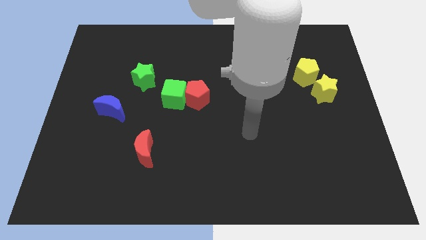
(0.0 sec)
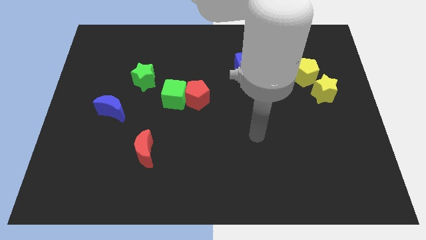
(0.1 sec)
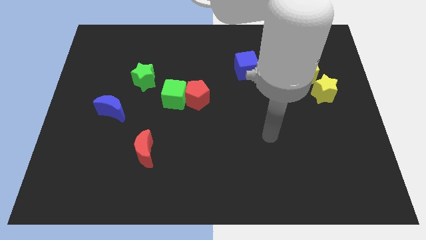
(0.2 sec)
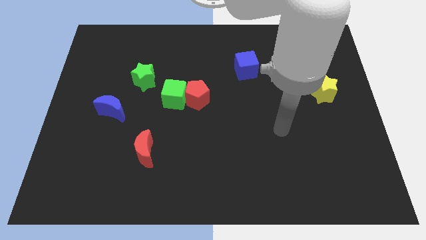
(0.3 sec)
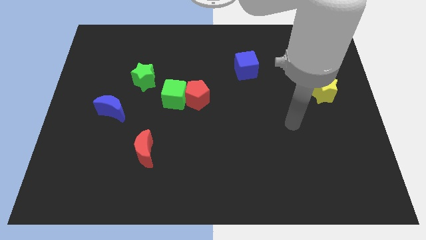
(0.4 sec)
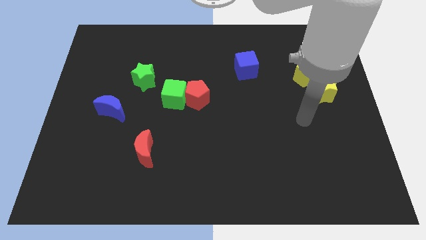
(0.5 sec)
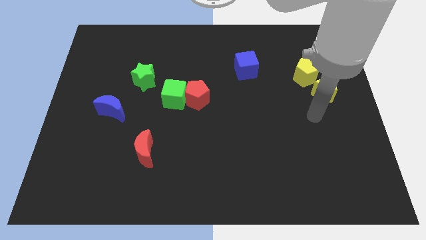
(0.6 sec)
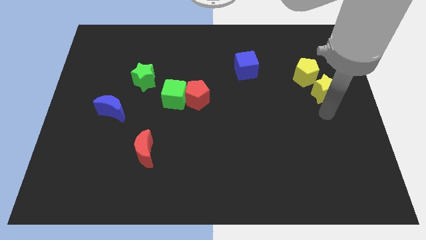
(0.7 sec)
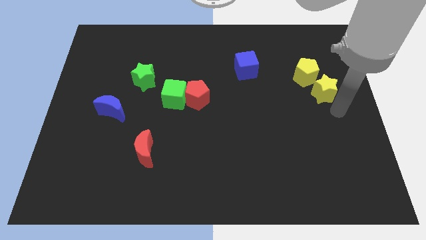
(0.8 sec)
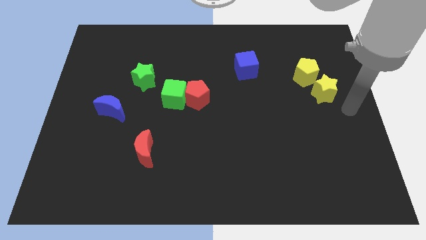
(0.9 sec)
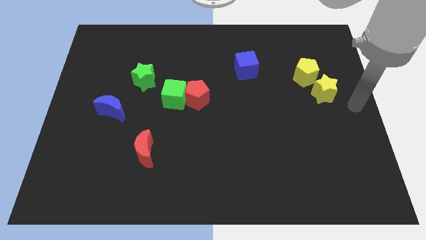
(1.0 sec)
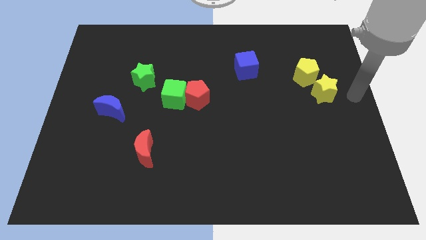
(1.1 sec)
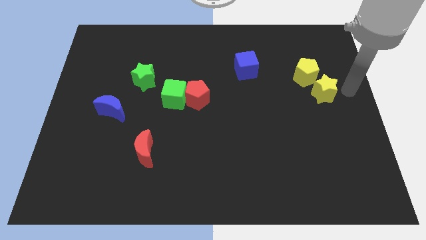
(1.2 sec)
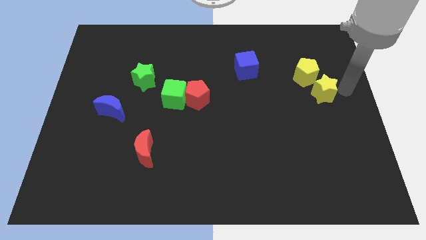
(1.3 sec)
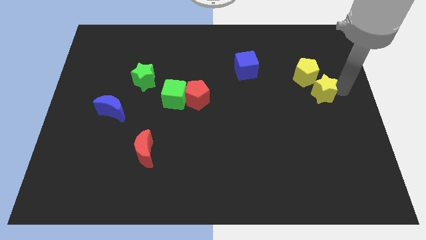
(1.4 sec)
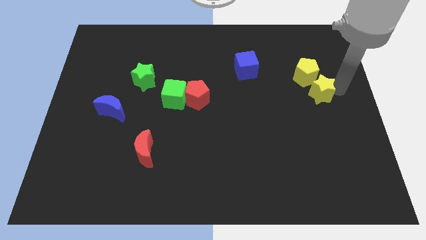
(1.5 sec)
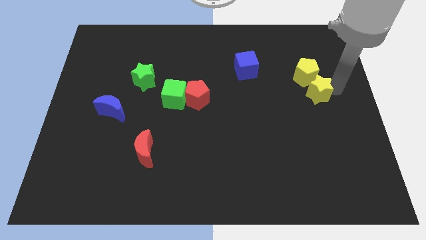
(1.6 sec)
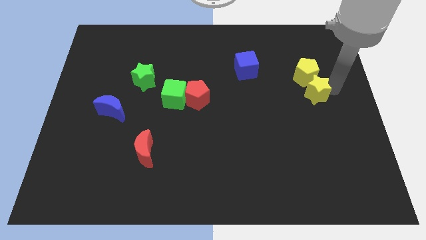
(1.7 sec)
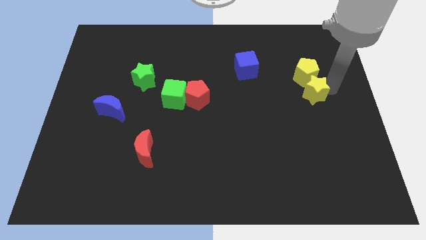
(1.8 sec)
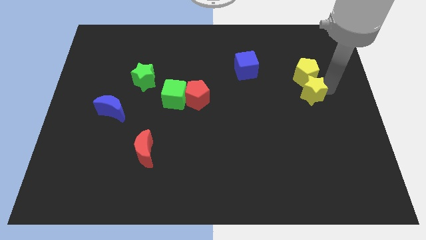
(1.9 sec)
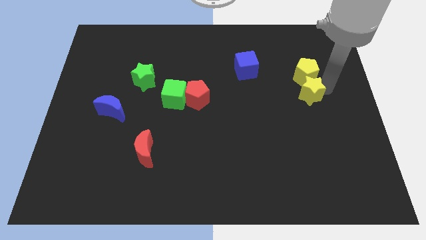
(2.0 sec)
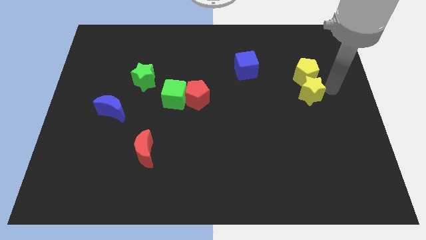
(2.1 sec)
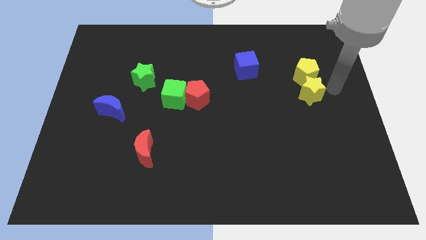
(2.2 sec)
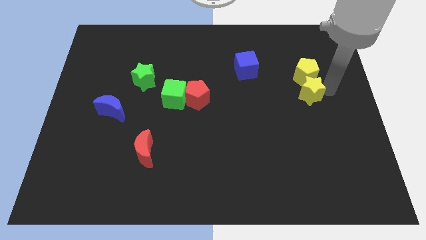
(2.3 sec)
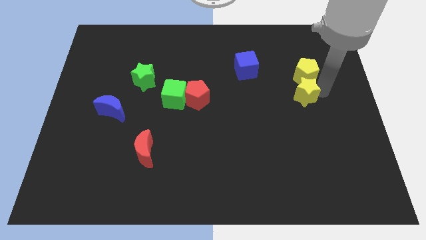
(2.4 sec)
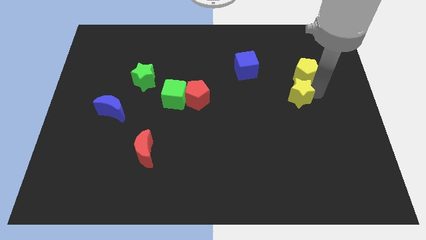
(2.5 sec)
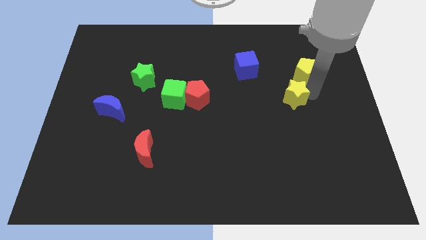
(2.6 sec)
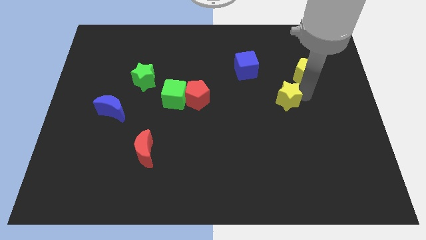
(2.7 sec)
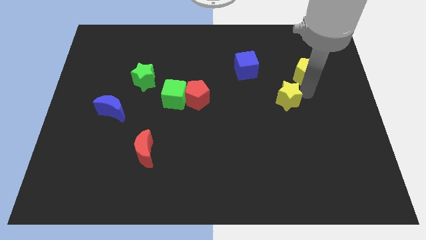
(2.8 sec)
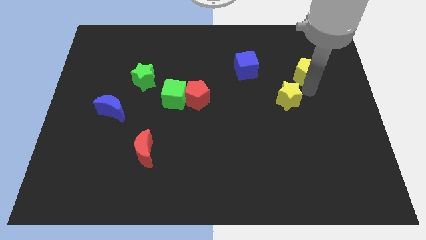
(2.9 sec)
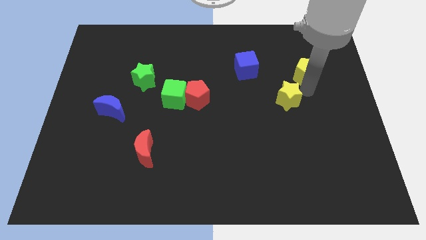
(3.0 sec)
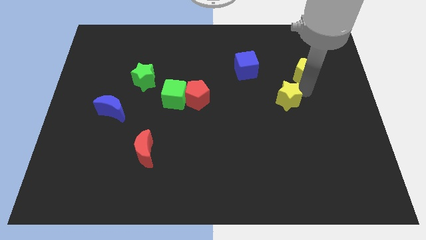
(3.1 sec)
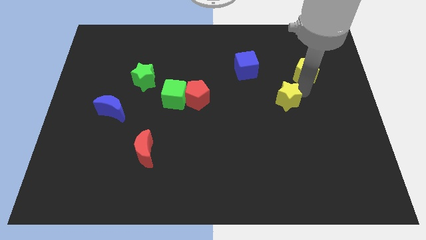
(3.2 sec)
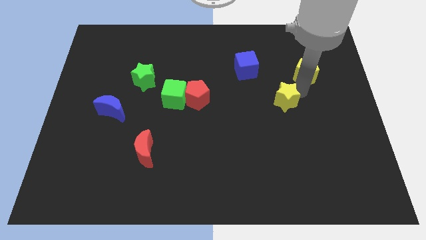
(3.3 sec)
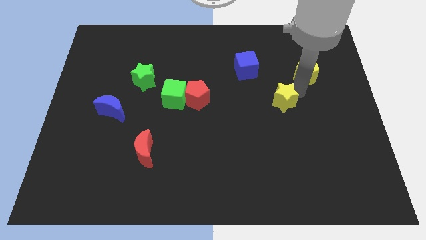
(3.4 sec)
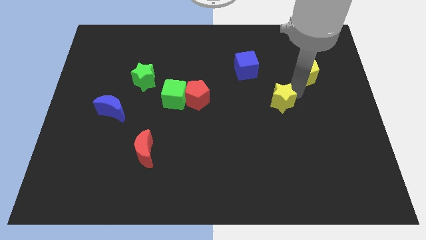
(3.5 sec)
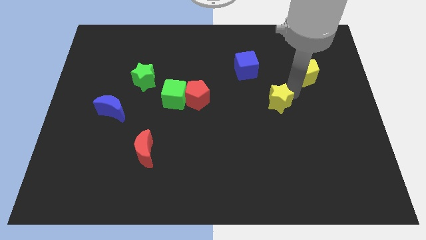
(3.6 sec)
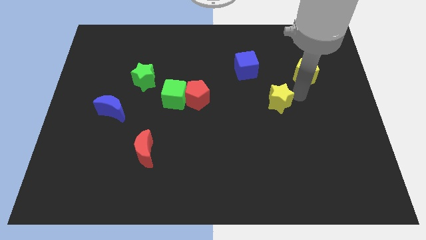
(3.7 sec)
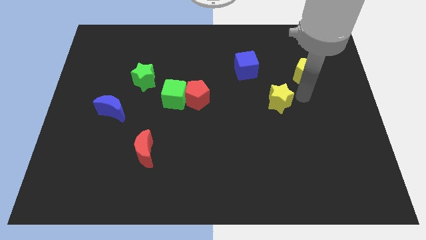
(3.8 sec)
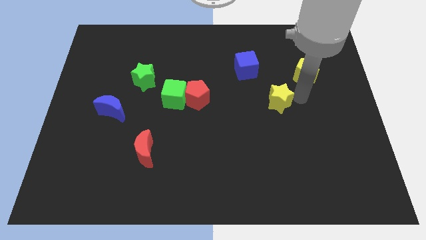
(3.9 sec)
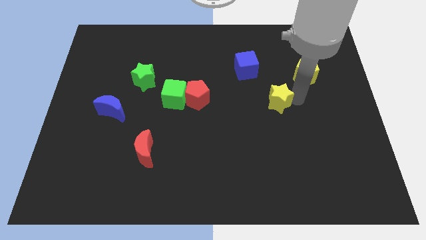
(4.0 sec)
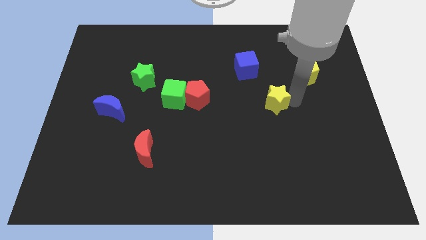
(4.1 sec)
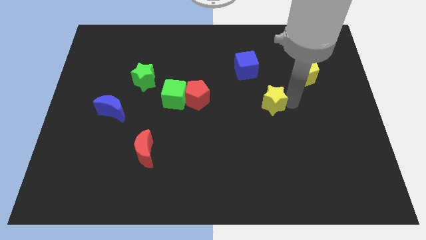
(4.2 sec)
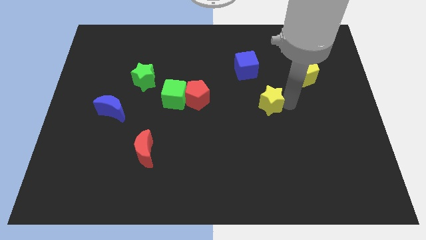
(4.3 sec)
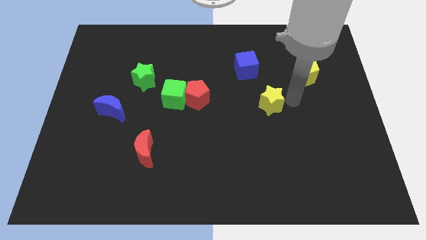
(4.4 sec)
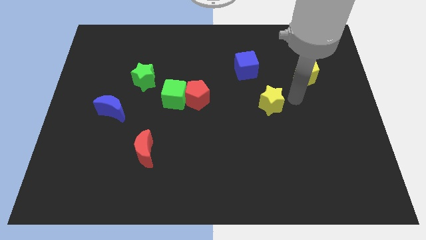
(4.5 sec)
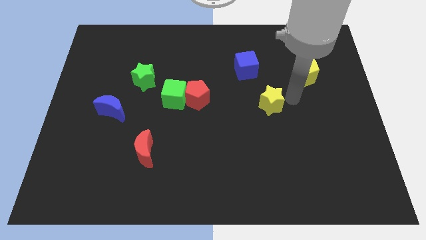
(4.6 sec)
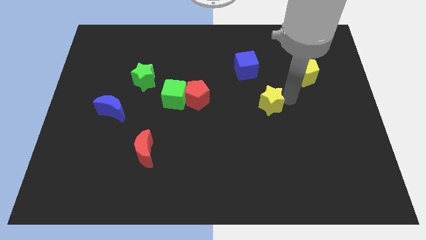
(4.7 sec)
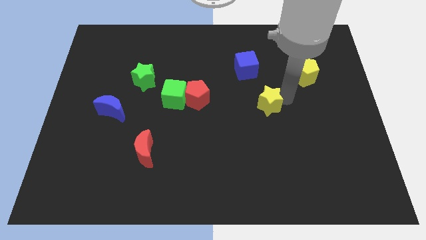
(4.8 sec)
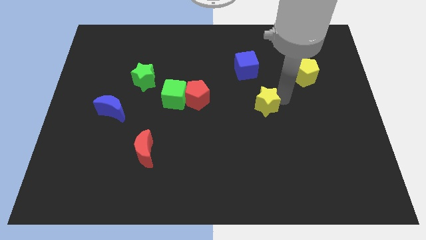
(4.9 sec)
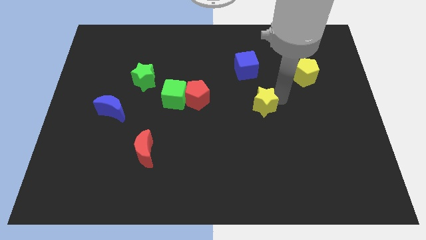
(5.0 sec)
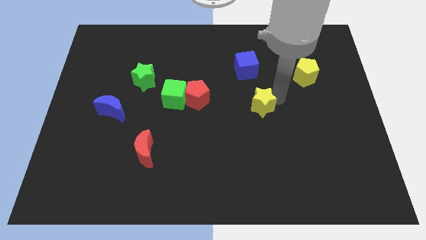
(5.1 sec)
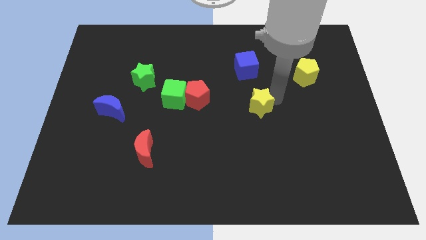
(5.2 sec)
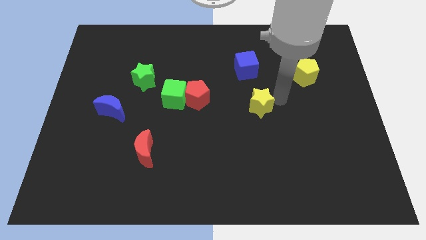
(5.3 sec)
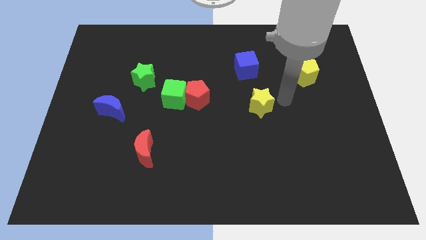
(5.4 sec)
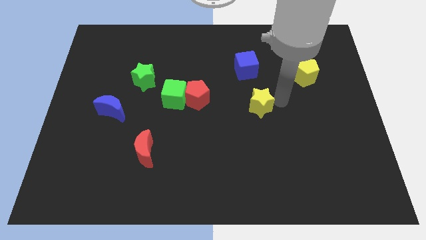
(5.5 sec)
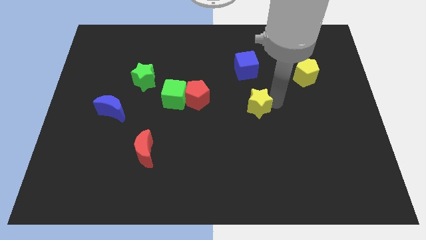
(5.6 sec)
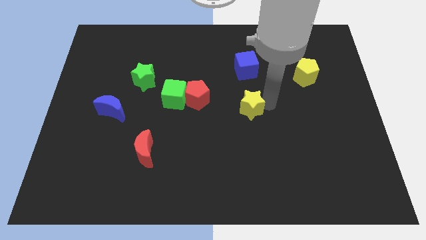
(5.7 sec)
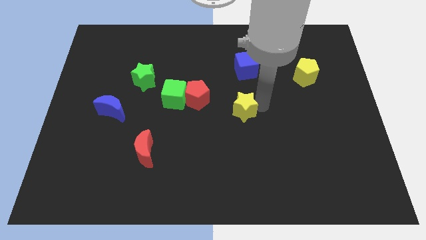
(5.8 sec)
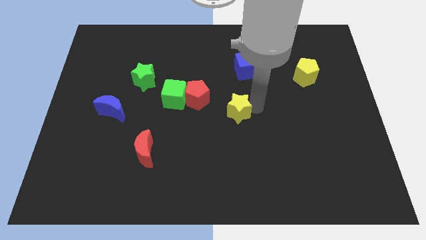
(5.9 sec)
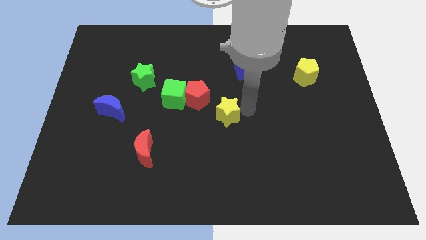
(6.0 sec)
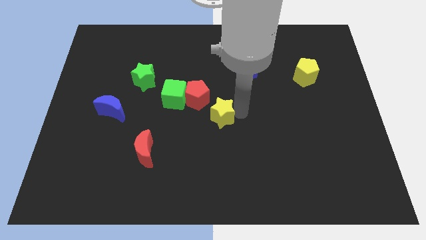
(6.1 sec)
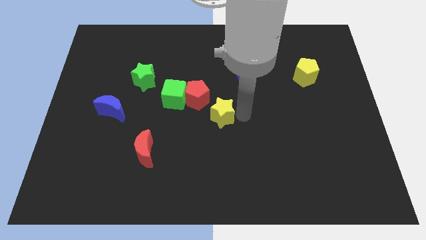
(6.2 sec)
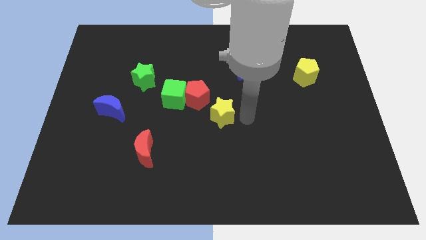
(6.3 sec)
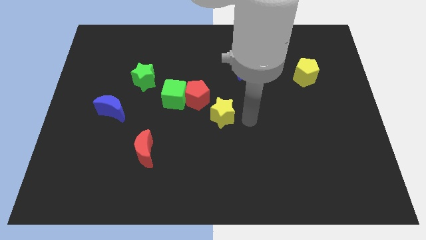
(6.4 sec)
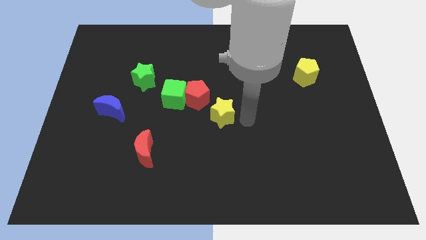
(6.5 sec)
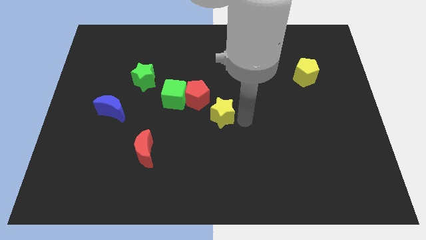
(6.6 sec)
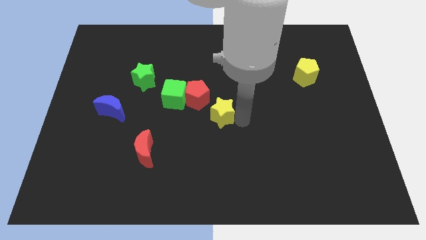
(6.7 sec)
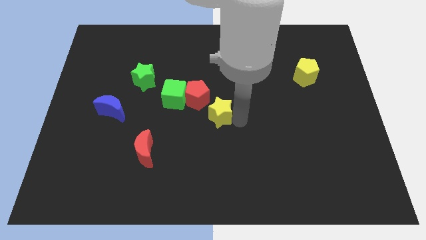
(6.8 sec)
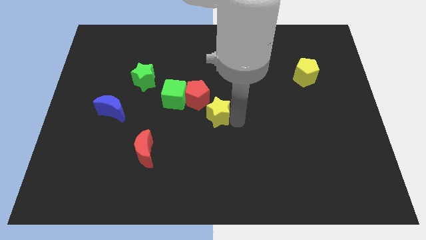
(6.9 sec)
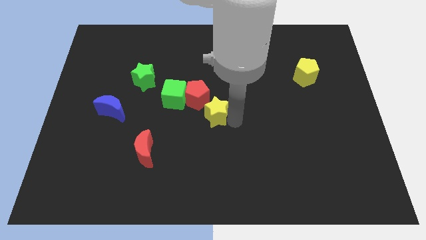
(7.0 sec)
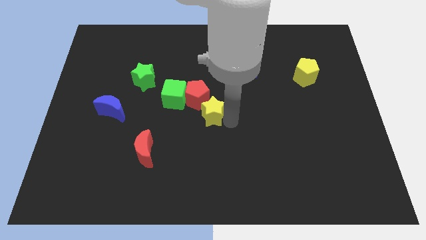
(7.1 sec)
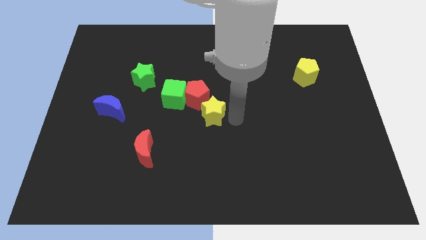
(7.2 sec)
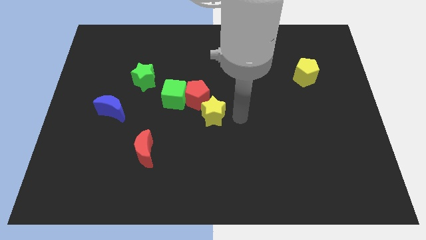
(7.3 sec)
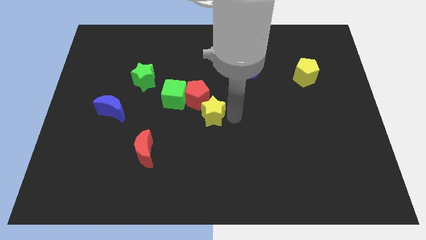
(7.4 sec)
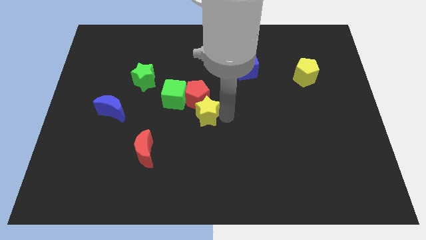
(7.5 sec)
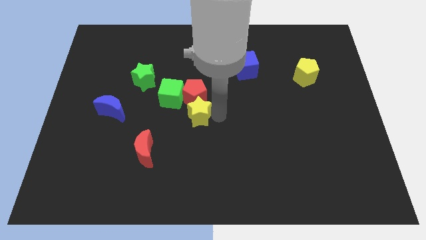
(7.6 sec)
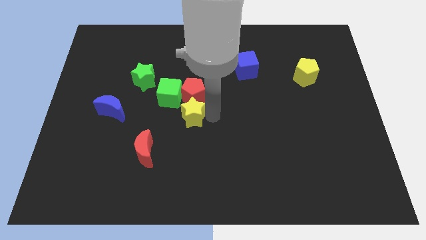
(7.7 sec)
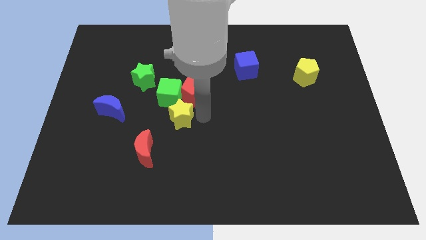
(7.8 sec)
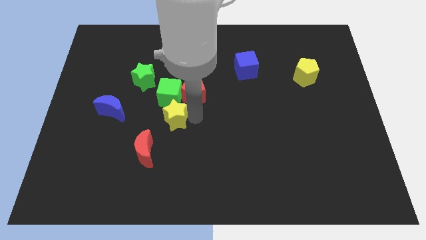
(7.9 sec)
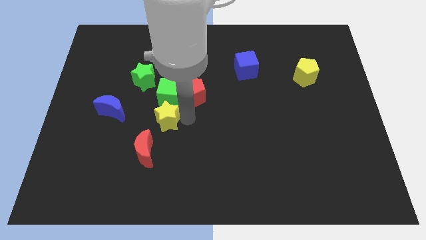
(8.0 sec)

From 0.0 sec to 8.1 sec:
move the yellow star above the red moon
